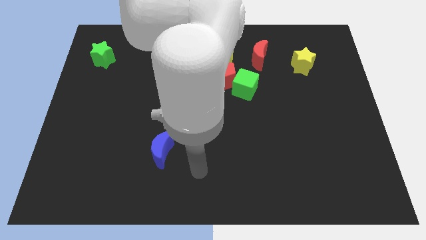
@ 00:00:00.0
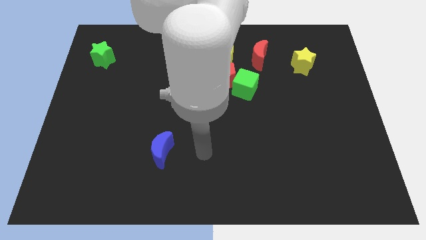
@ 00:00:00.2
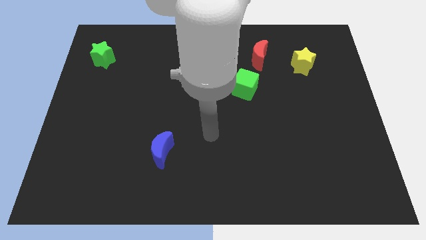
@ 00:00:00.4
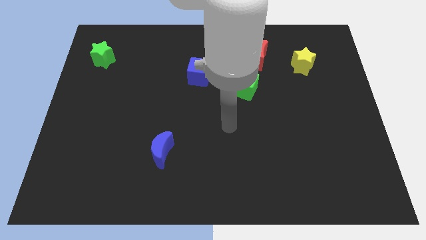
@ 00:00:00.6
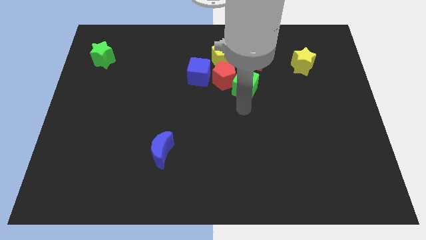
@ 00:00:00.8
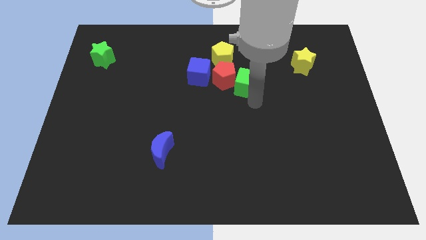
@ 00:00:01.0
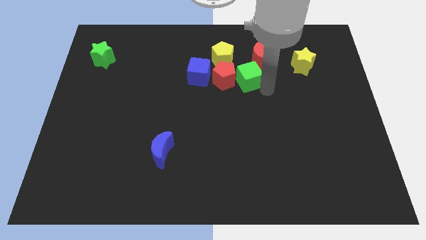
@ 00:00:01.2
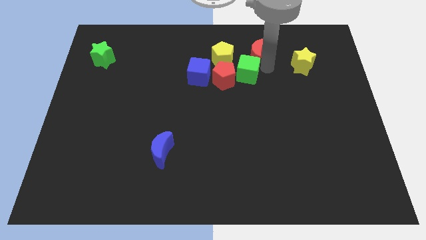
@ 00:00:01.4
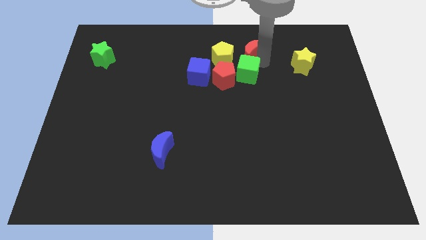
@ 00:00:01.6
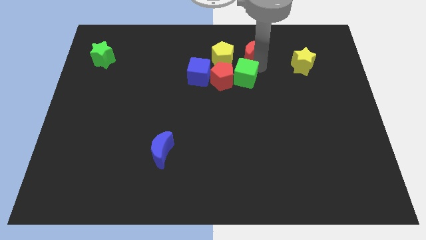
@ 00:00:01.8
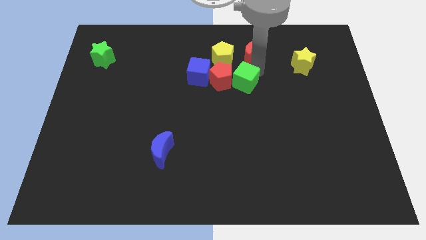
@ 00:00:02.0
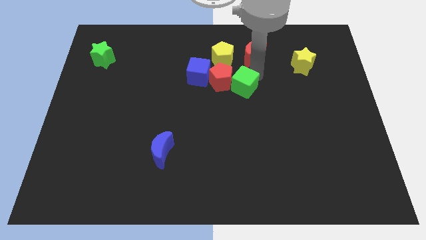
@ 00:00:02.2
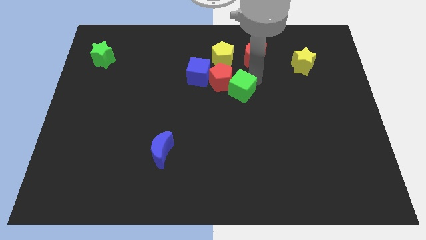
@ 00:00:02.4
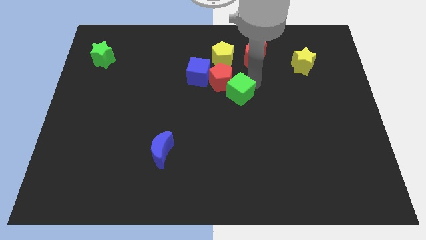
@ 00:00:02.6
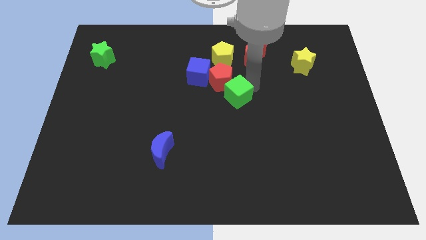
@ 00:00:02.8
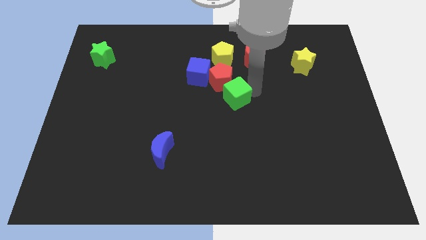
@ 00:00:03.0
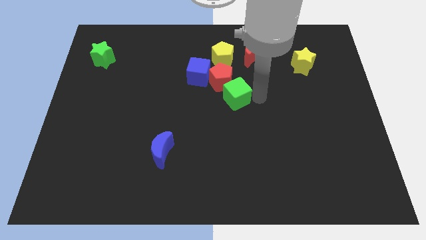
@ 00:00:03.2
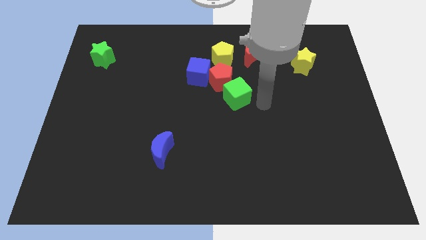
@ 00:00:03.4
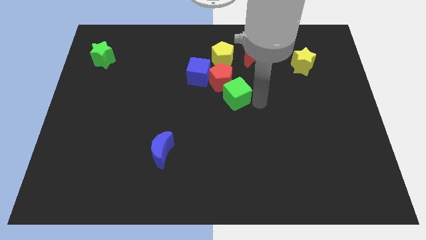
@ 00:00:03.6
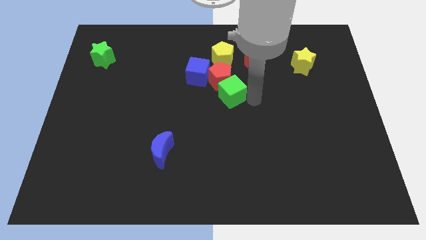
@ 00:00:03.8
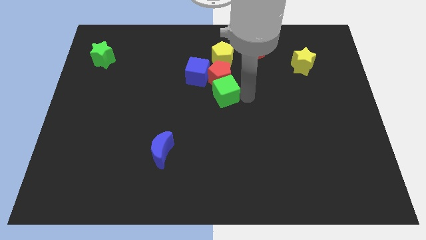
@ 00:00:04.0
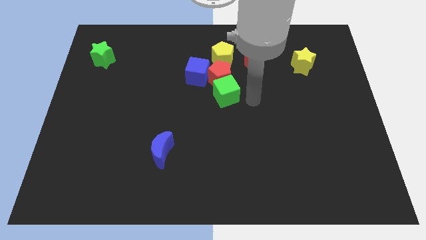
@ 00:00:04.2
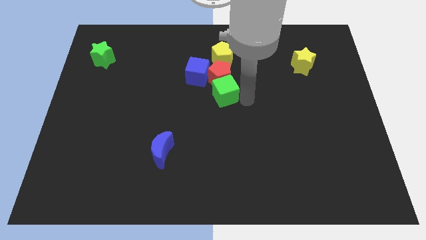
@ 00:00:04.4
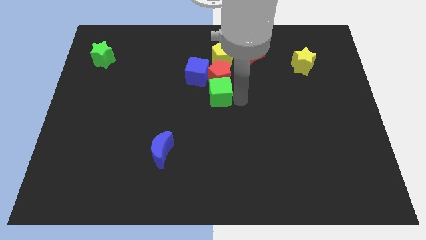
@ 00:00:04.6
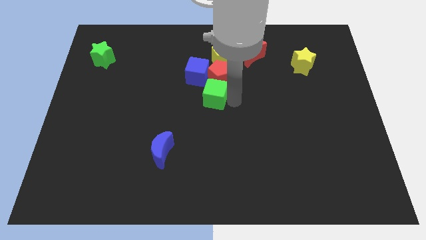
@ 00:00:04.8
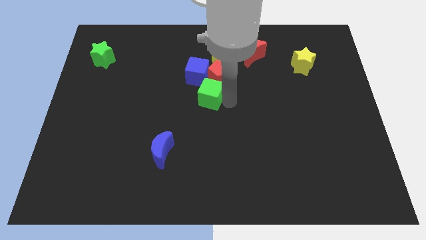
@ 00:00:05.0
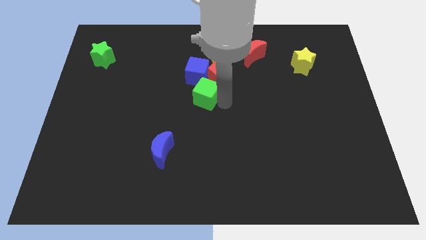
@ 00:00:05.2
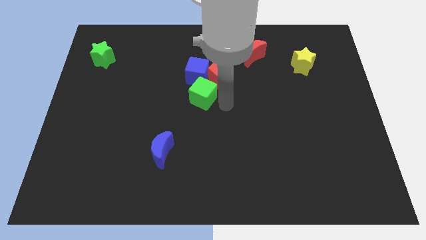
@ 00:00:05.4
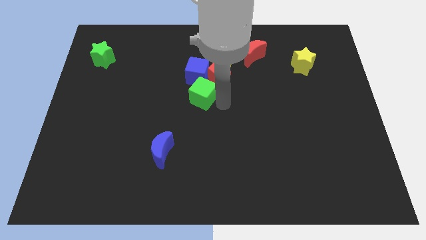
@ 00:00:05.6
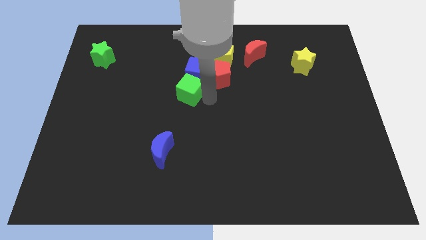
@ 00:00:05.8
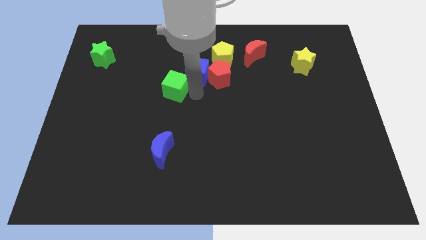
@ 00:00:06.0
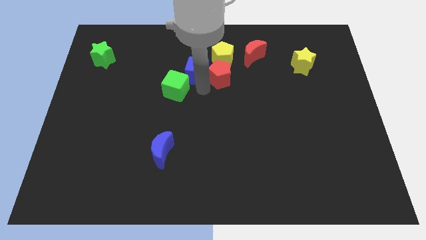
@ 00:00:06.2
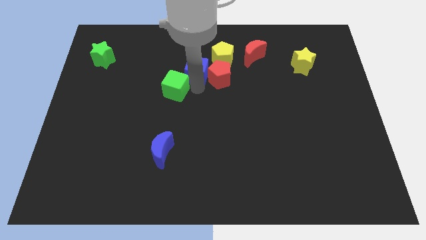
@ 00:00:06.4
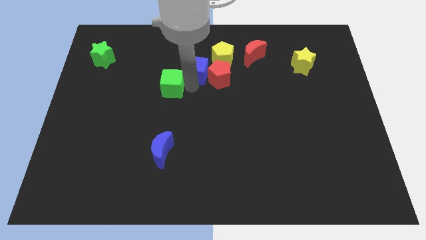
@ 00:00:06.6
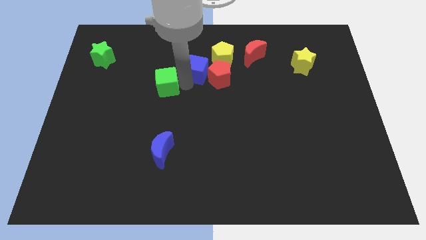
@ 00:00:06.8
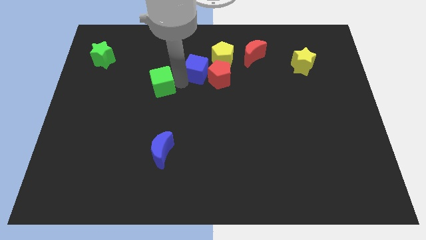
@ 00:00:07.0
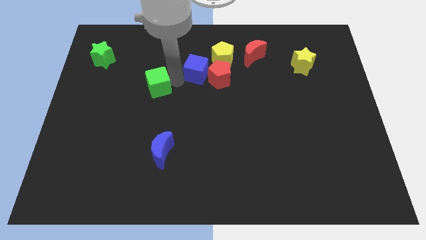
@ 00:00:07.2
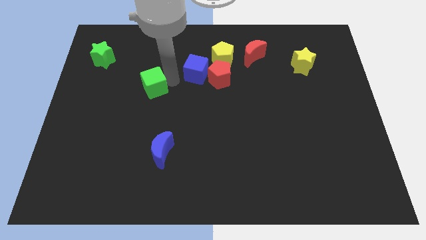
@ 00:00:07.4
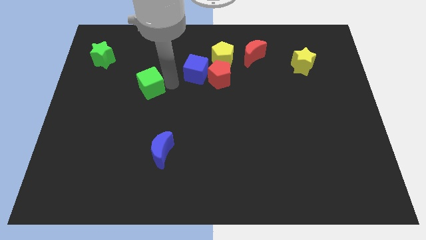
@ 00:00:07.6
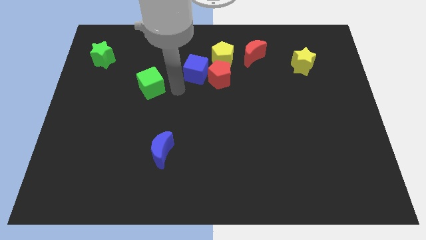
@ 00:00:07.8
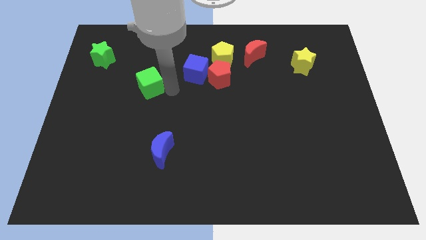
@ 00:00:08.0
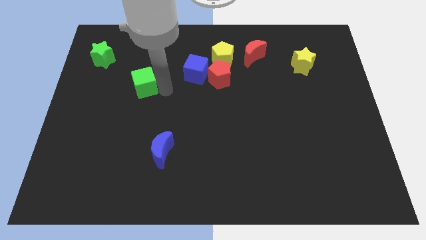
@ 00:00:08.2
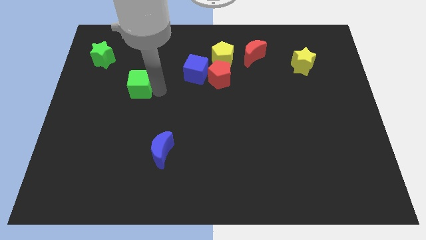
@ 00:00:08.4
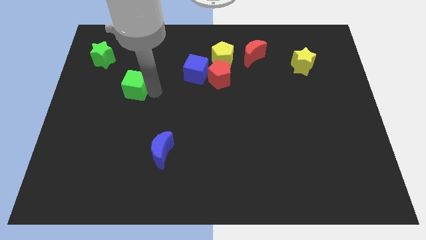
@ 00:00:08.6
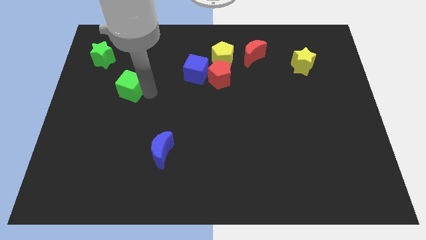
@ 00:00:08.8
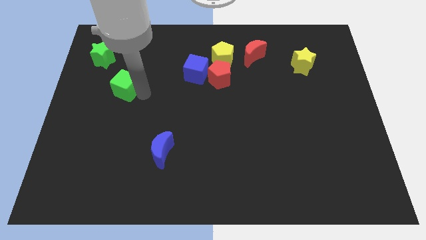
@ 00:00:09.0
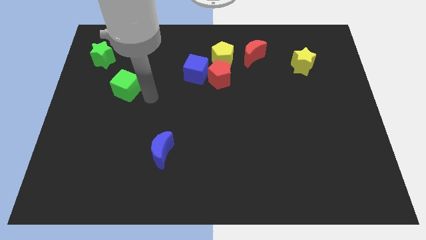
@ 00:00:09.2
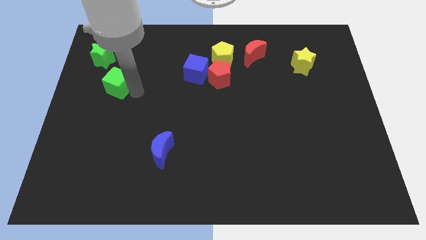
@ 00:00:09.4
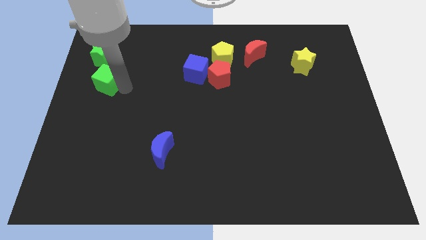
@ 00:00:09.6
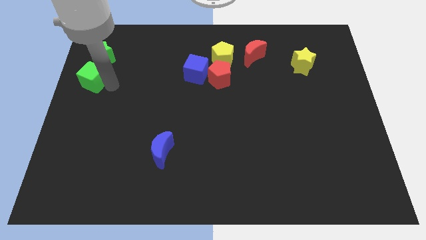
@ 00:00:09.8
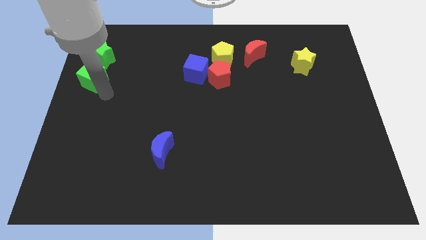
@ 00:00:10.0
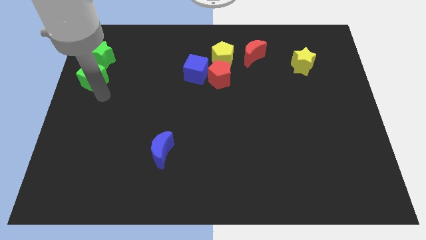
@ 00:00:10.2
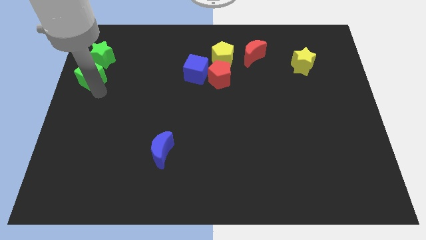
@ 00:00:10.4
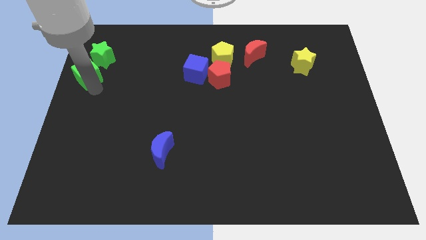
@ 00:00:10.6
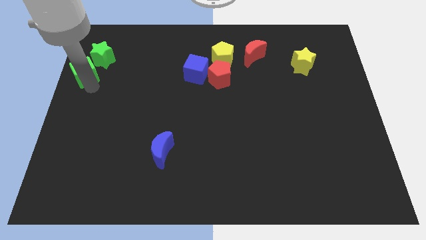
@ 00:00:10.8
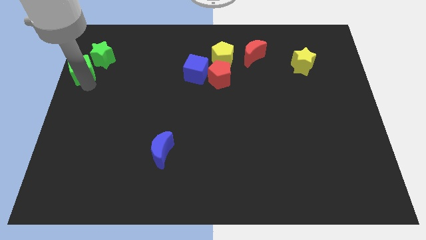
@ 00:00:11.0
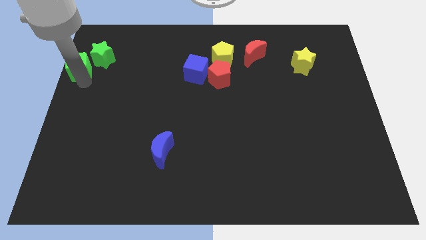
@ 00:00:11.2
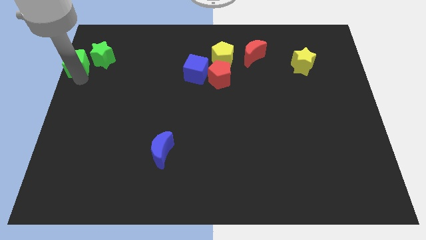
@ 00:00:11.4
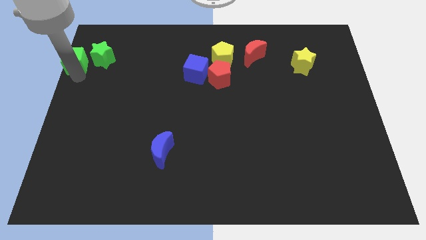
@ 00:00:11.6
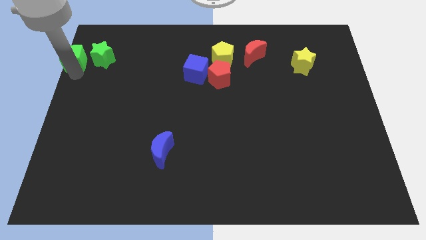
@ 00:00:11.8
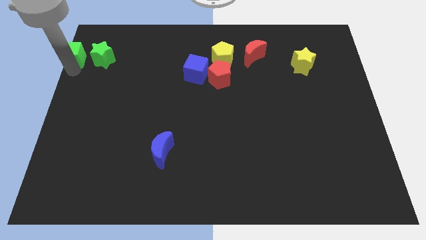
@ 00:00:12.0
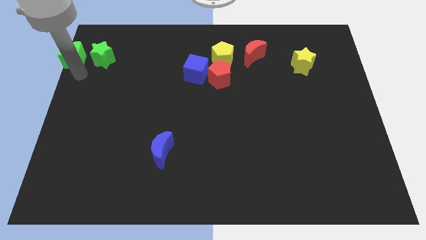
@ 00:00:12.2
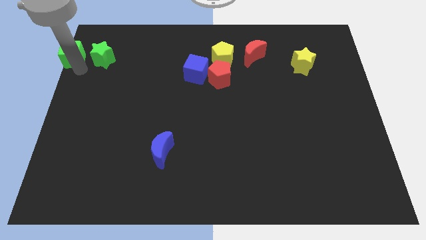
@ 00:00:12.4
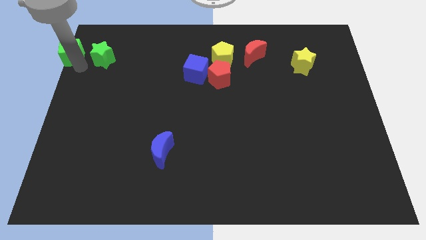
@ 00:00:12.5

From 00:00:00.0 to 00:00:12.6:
put the green cube to the upper left corner
